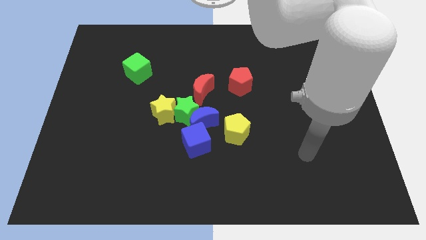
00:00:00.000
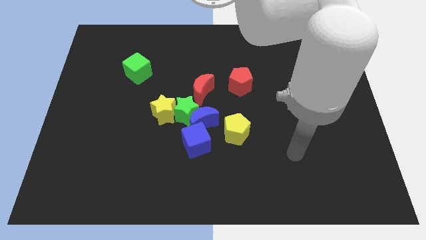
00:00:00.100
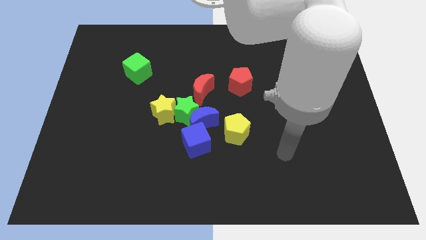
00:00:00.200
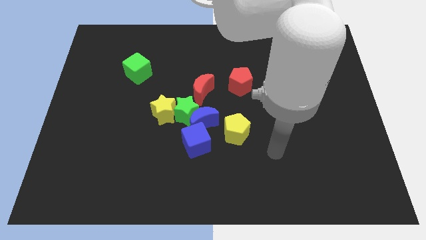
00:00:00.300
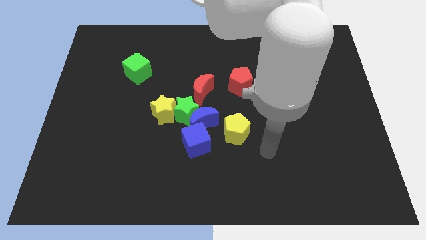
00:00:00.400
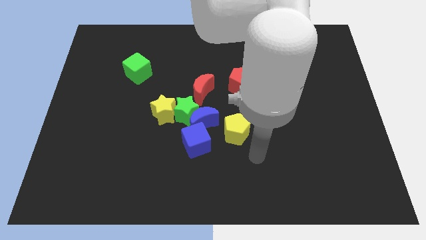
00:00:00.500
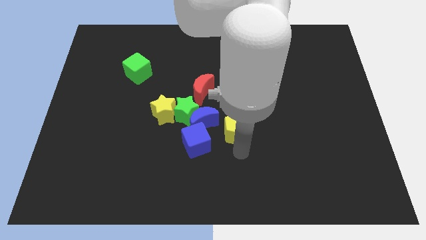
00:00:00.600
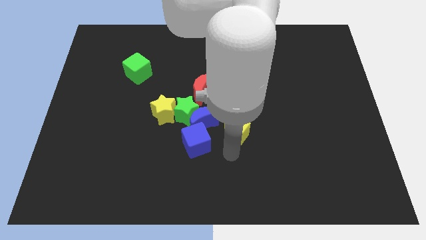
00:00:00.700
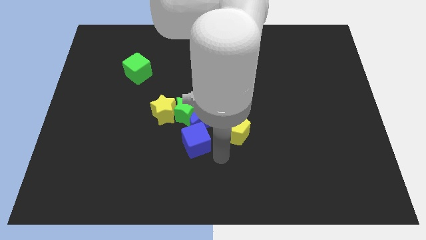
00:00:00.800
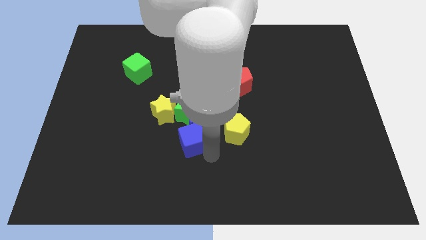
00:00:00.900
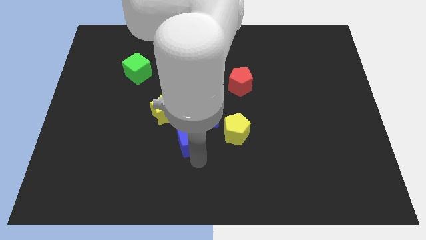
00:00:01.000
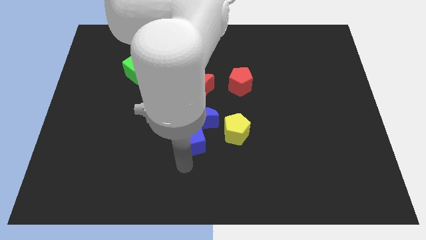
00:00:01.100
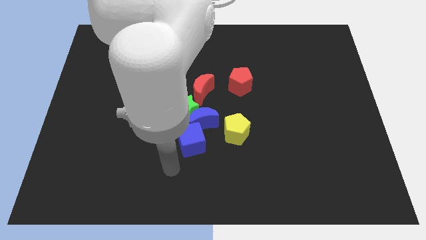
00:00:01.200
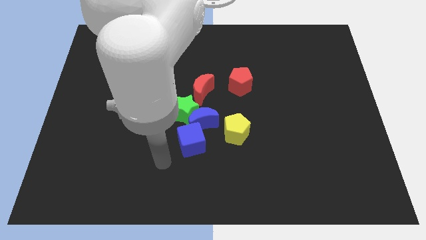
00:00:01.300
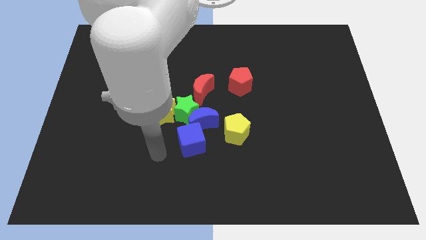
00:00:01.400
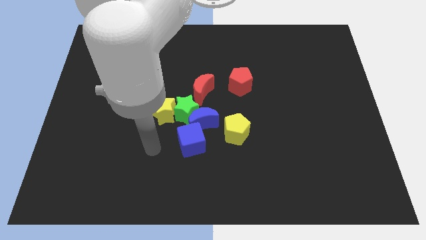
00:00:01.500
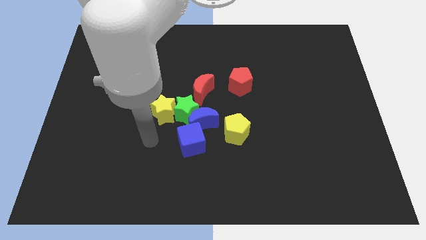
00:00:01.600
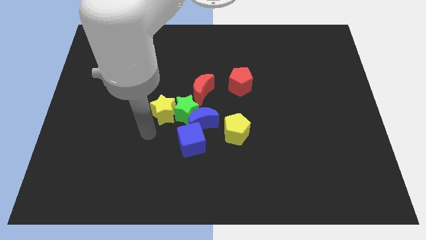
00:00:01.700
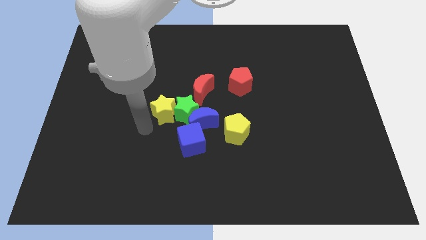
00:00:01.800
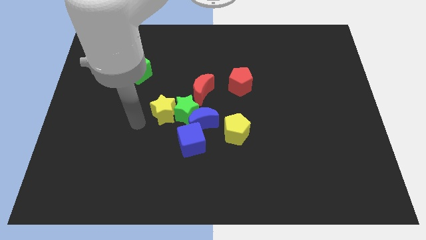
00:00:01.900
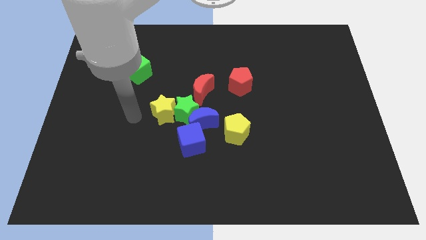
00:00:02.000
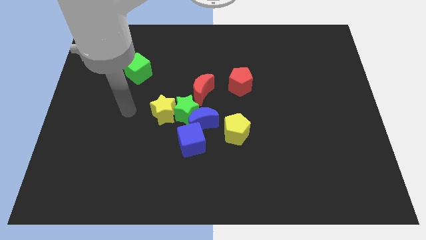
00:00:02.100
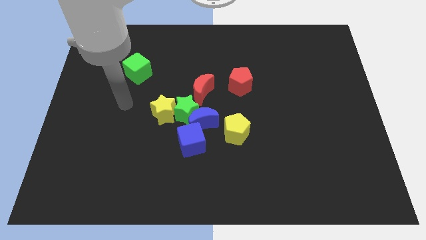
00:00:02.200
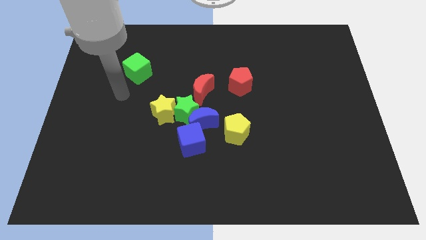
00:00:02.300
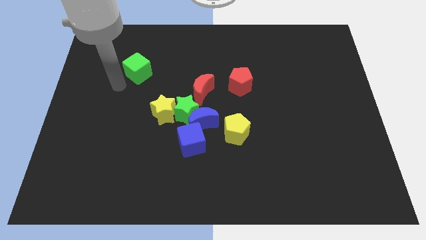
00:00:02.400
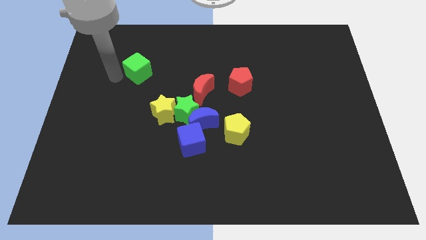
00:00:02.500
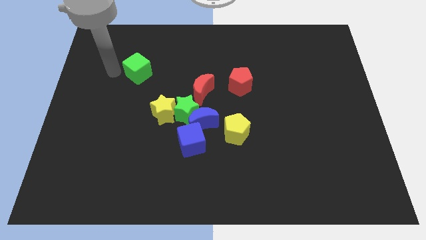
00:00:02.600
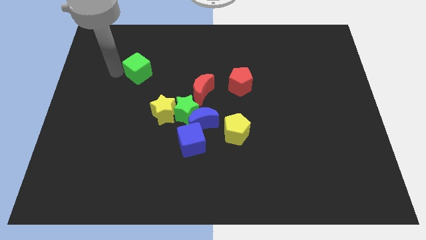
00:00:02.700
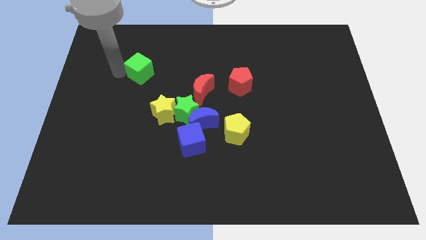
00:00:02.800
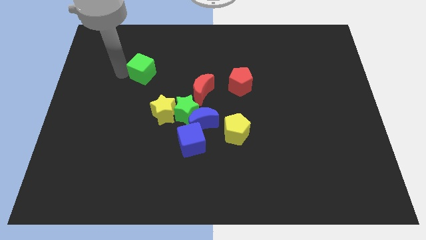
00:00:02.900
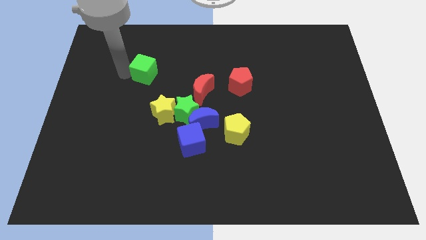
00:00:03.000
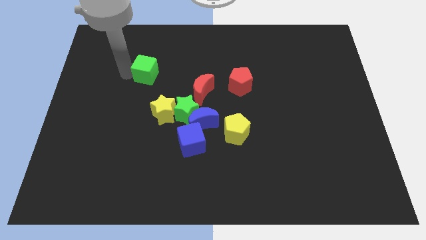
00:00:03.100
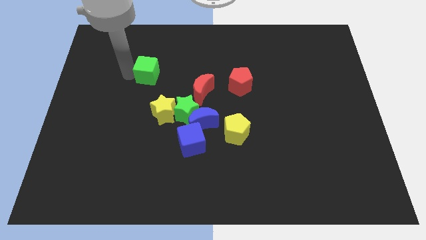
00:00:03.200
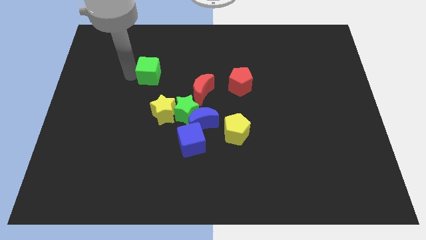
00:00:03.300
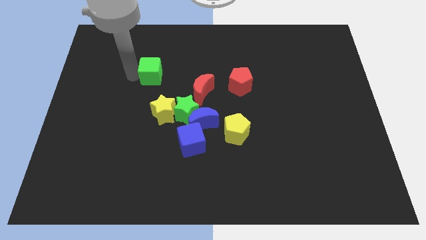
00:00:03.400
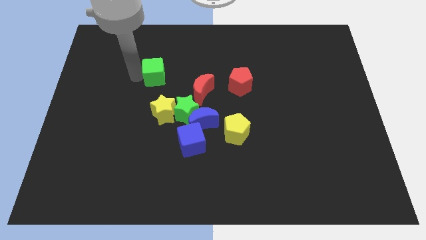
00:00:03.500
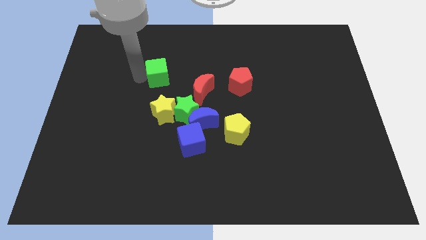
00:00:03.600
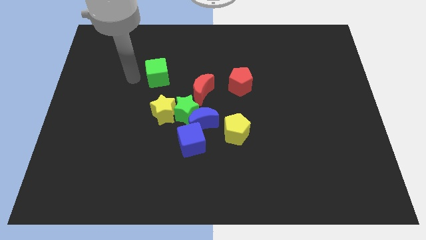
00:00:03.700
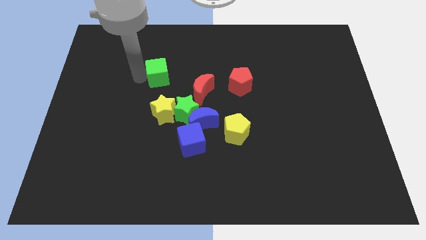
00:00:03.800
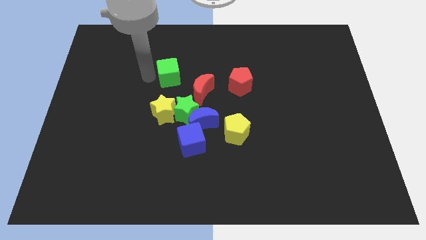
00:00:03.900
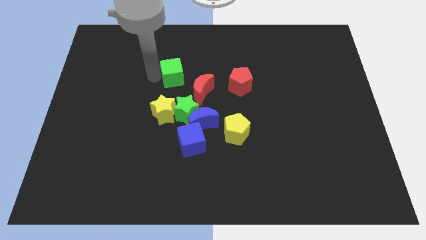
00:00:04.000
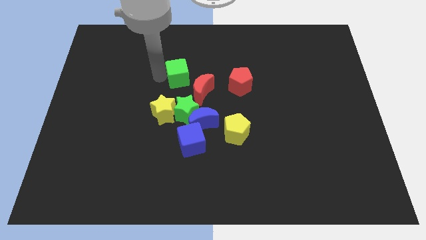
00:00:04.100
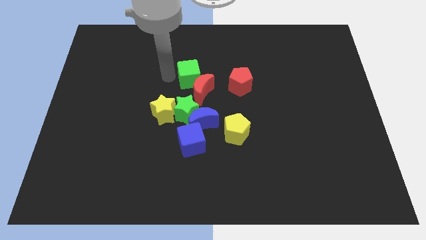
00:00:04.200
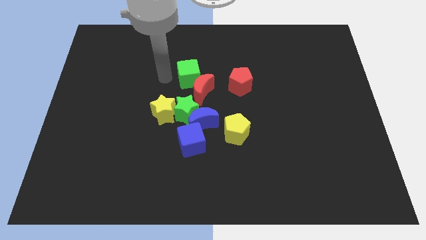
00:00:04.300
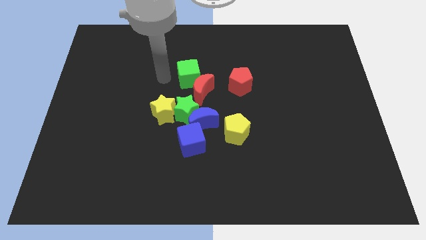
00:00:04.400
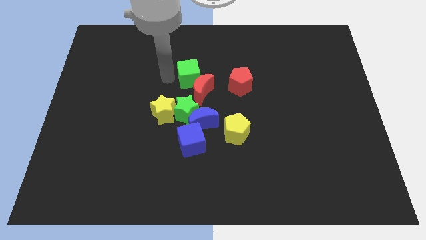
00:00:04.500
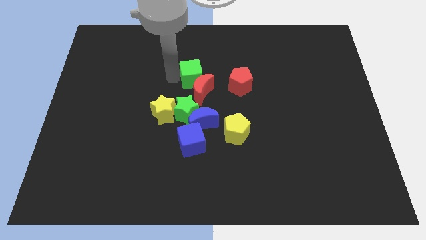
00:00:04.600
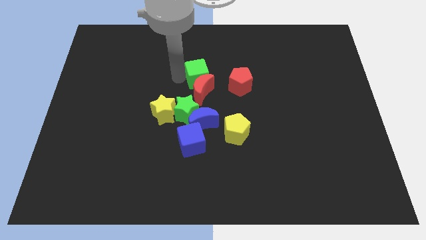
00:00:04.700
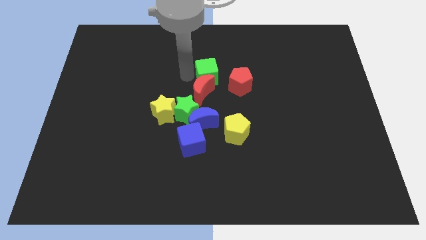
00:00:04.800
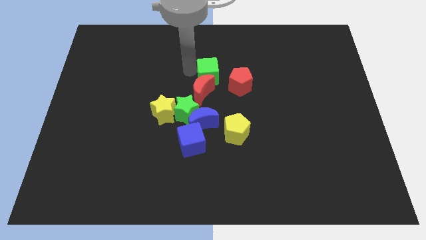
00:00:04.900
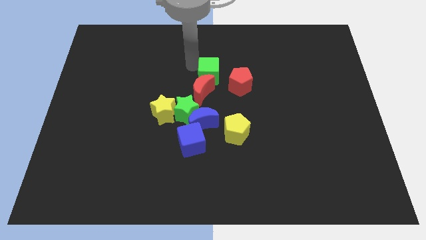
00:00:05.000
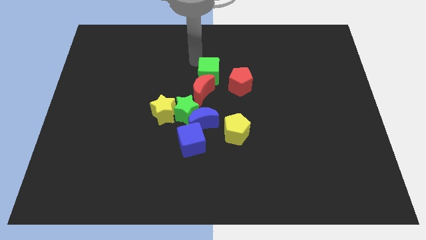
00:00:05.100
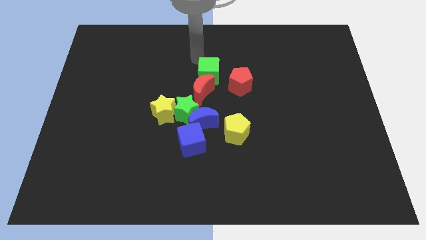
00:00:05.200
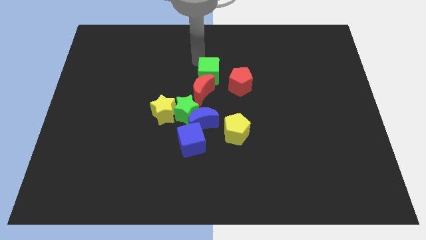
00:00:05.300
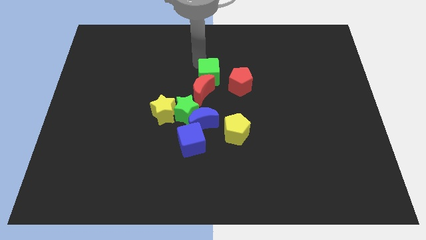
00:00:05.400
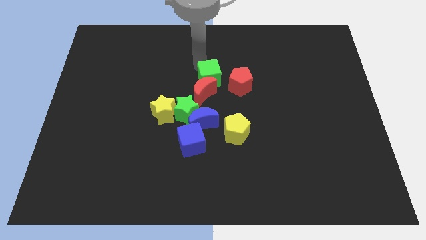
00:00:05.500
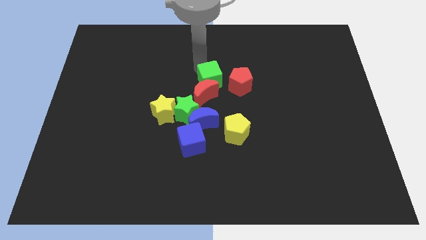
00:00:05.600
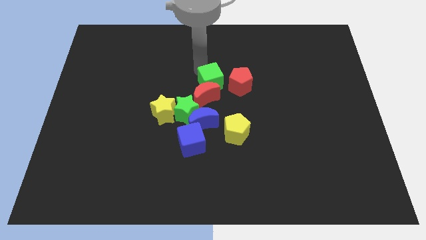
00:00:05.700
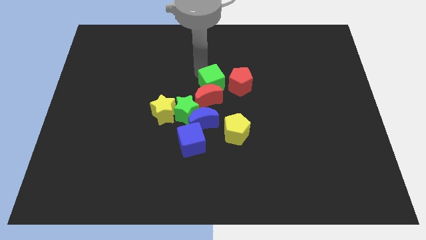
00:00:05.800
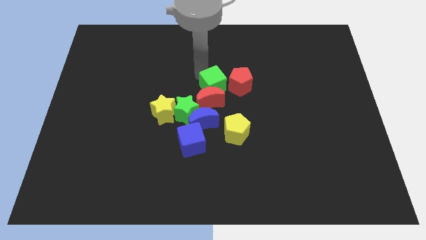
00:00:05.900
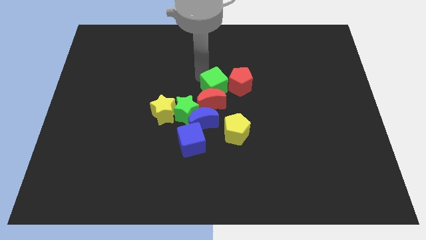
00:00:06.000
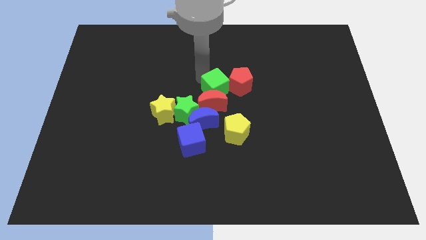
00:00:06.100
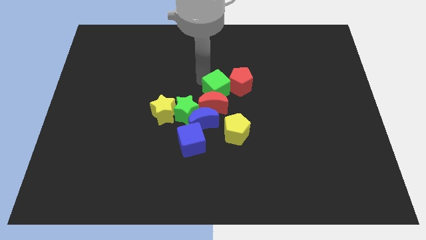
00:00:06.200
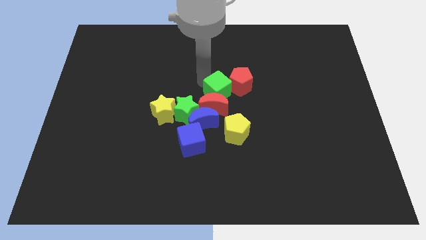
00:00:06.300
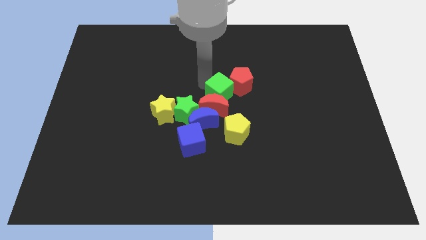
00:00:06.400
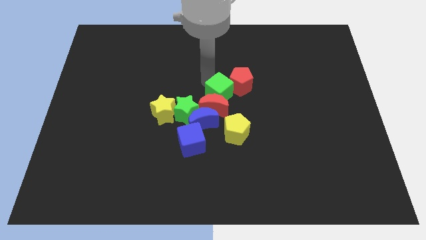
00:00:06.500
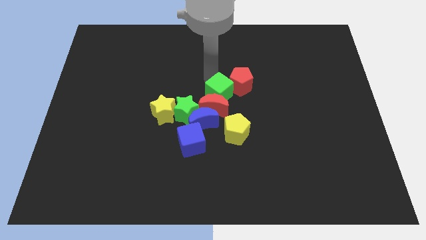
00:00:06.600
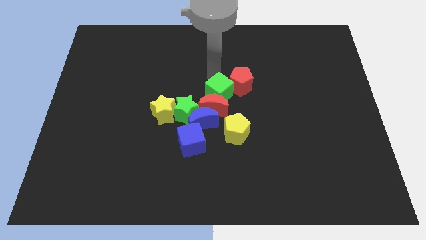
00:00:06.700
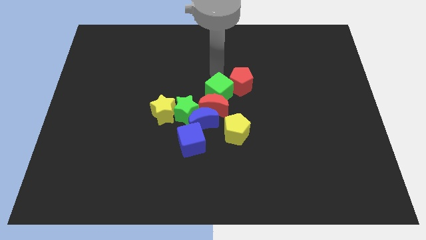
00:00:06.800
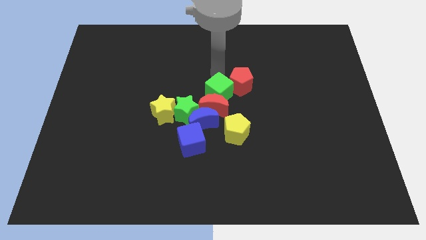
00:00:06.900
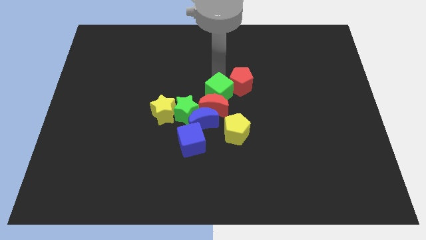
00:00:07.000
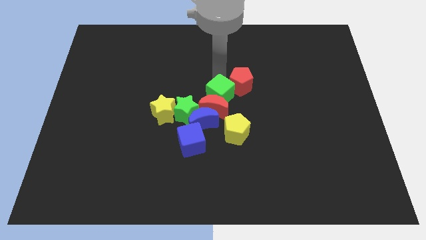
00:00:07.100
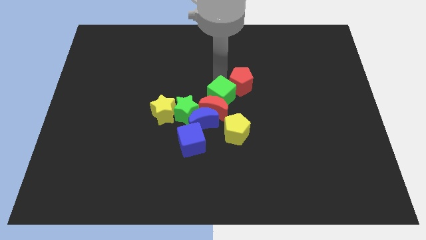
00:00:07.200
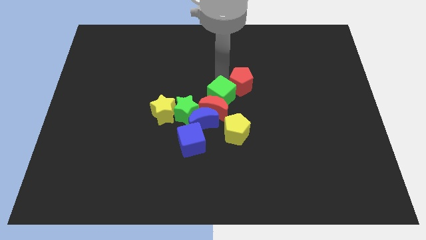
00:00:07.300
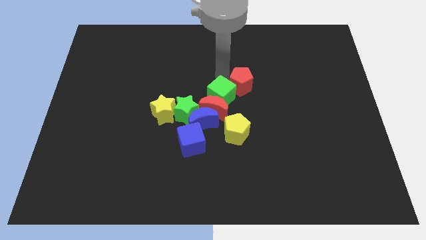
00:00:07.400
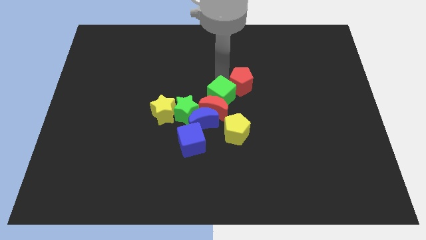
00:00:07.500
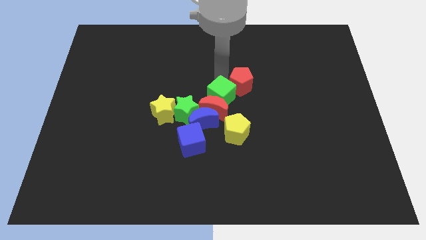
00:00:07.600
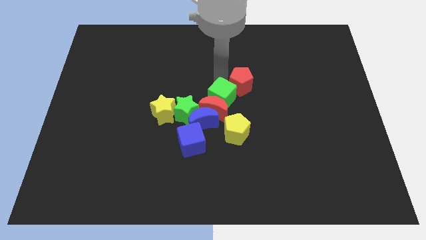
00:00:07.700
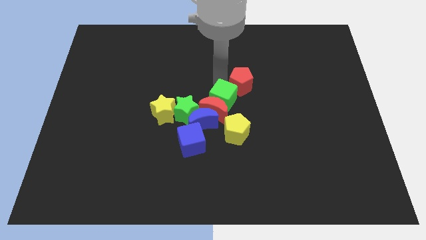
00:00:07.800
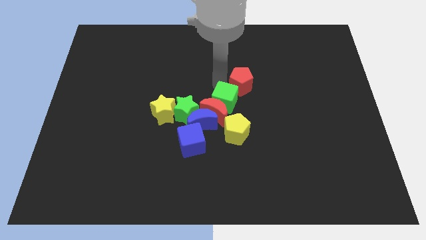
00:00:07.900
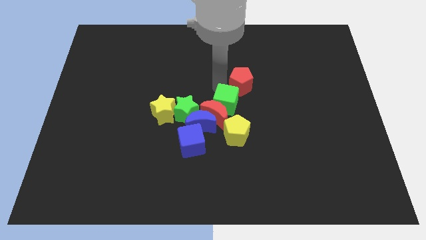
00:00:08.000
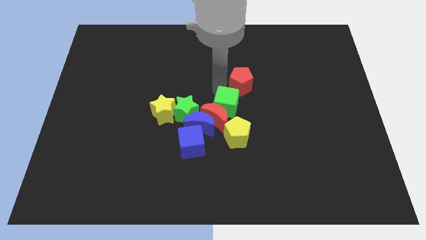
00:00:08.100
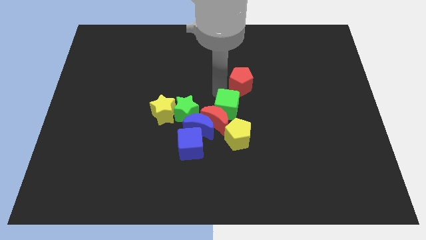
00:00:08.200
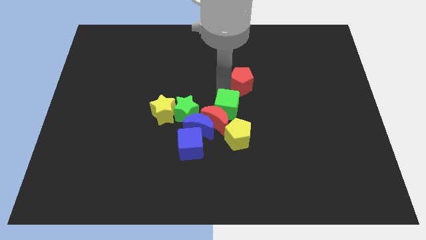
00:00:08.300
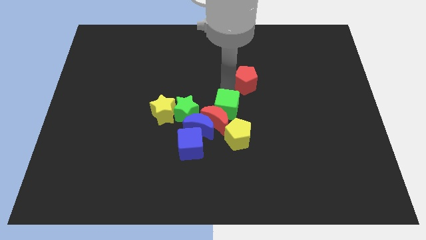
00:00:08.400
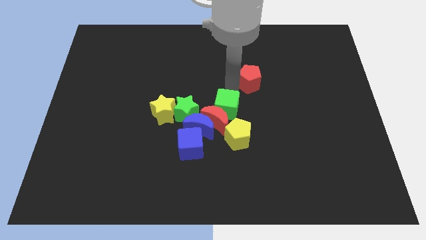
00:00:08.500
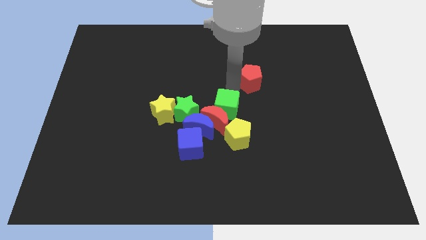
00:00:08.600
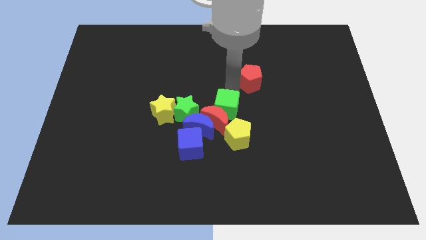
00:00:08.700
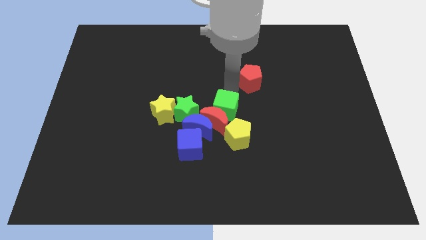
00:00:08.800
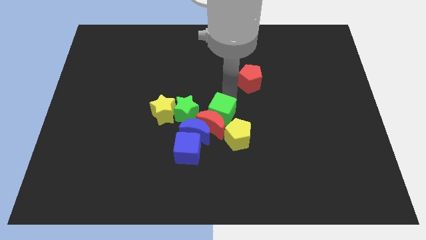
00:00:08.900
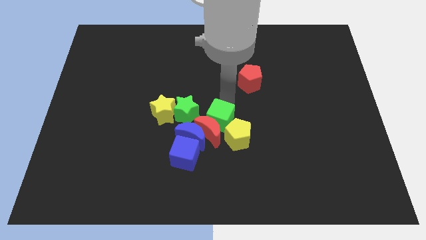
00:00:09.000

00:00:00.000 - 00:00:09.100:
put the green cube to the bottom right side of the green star
